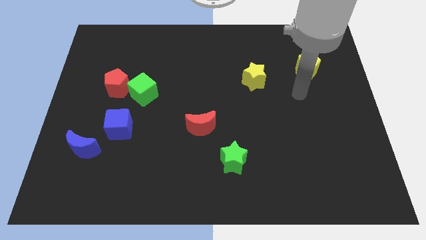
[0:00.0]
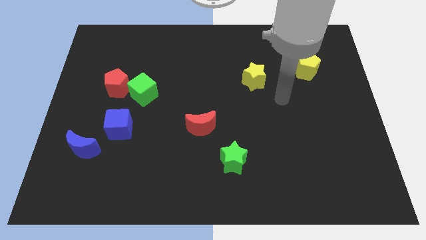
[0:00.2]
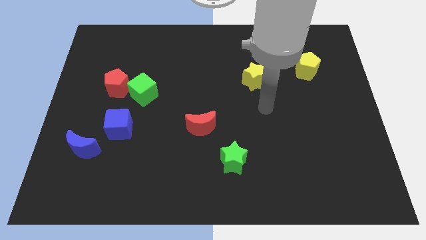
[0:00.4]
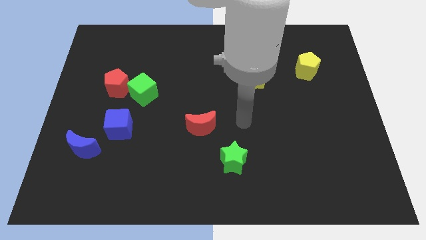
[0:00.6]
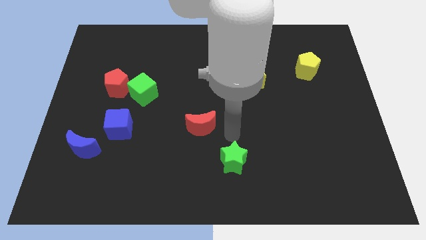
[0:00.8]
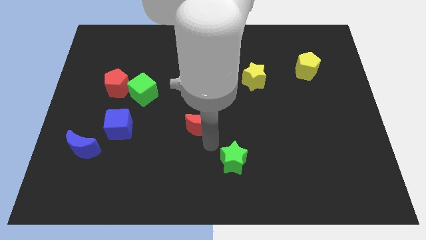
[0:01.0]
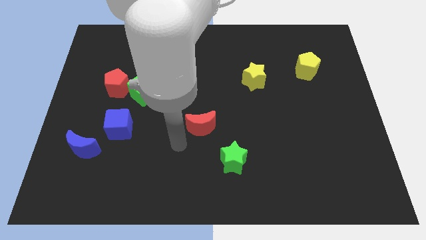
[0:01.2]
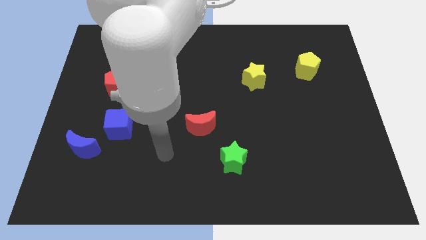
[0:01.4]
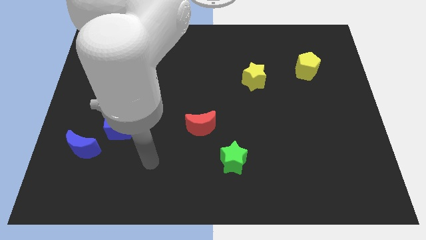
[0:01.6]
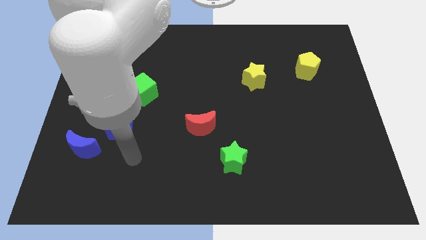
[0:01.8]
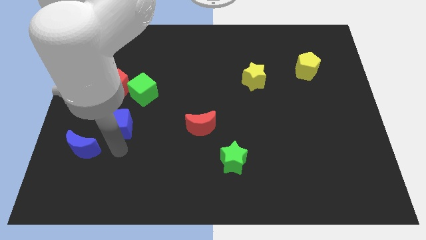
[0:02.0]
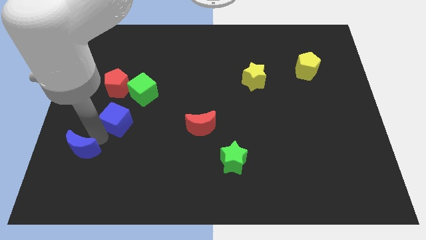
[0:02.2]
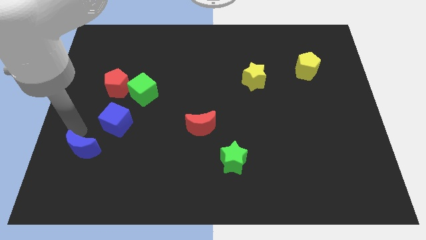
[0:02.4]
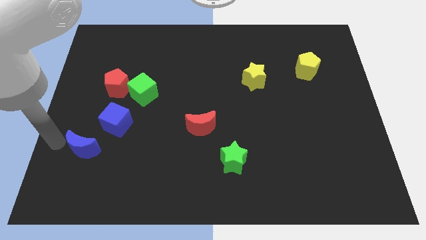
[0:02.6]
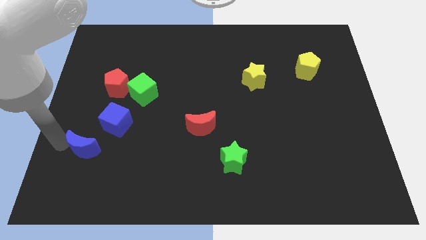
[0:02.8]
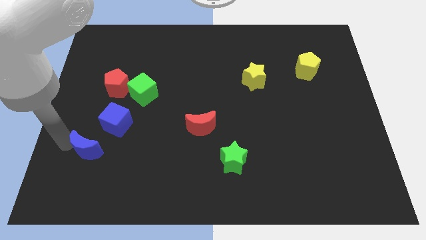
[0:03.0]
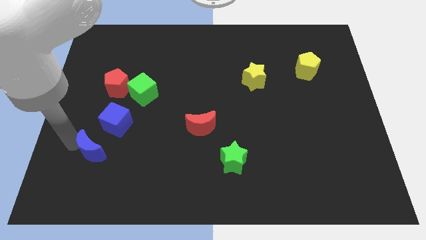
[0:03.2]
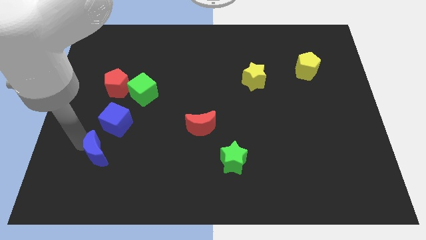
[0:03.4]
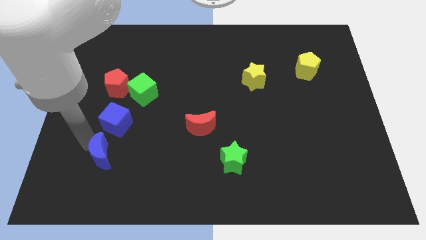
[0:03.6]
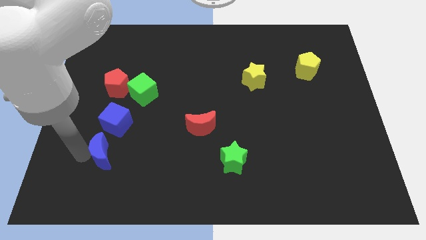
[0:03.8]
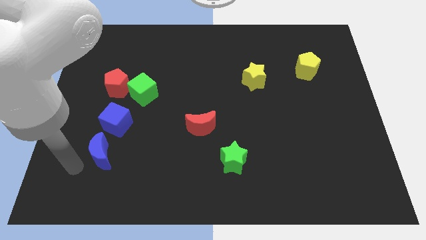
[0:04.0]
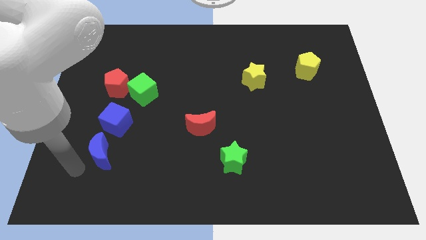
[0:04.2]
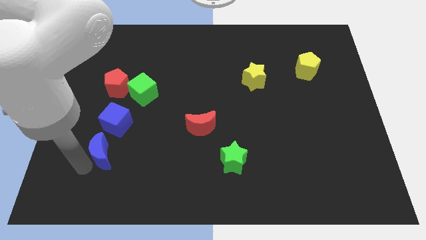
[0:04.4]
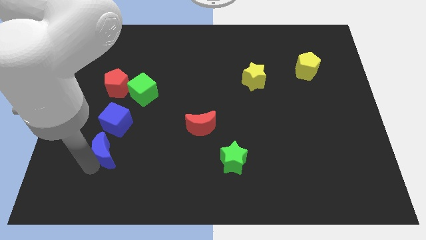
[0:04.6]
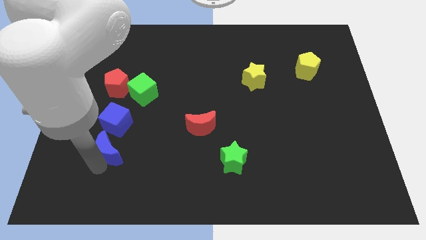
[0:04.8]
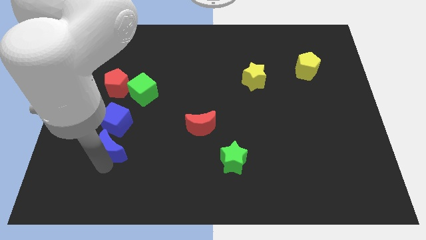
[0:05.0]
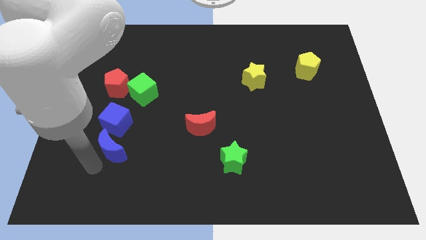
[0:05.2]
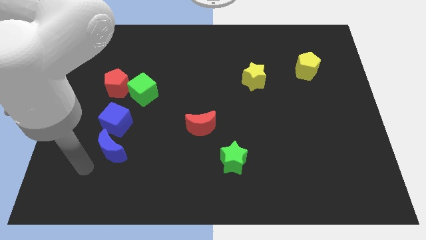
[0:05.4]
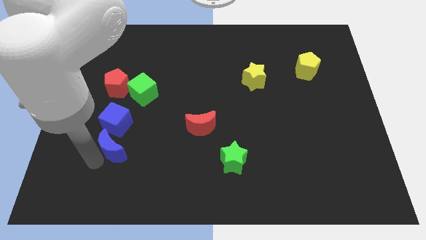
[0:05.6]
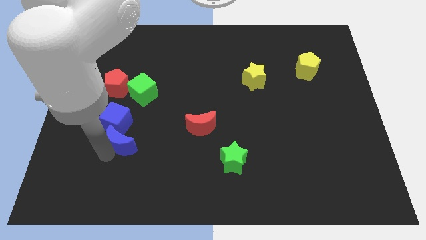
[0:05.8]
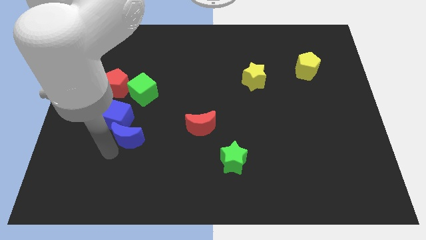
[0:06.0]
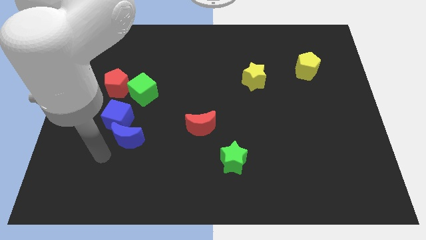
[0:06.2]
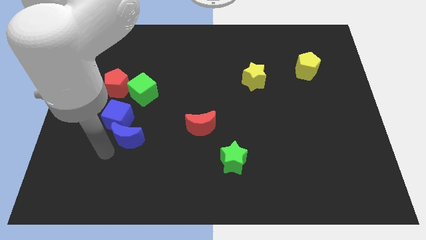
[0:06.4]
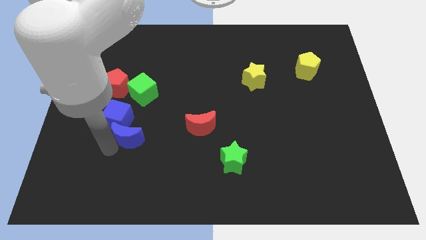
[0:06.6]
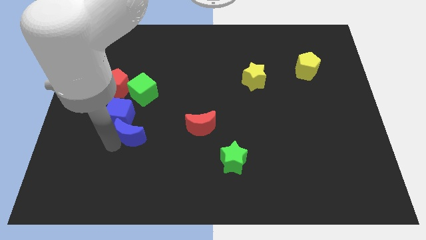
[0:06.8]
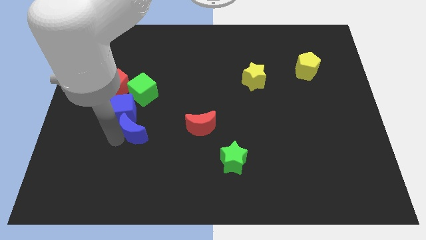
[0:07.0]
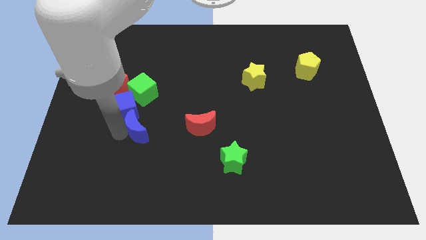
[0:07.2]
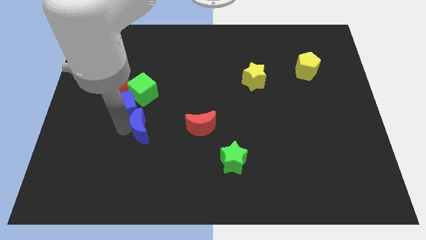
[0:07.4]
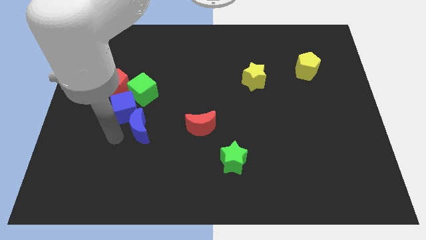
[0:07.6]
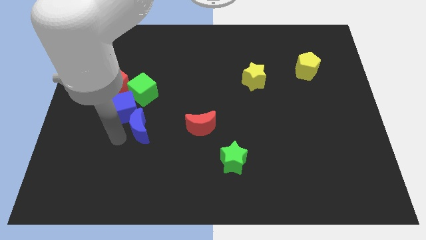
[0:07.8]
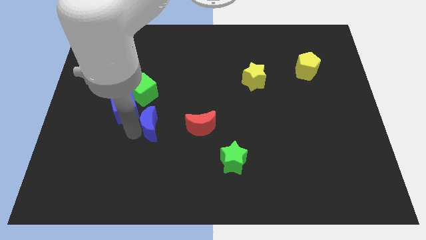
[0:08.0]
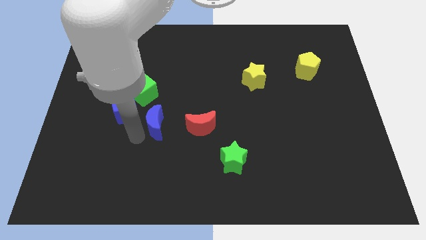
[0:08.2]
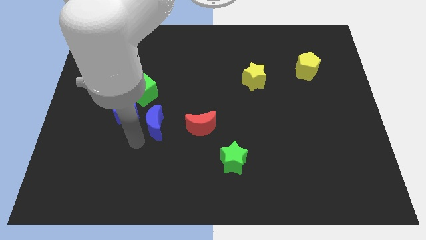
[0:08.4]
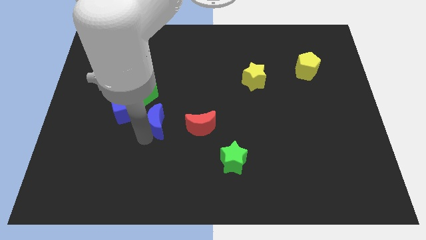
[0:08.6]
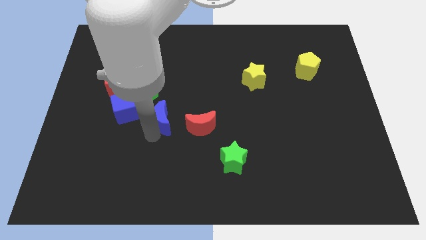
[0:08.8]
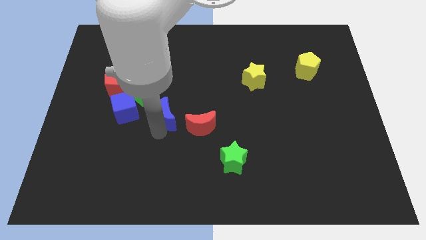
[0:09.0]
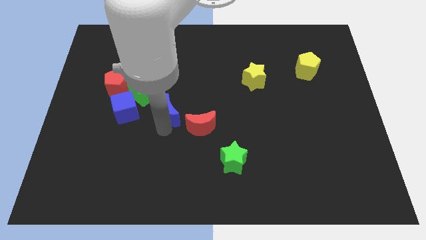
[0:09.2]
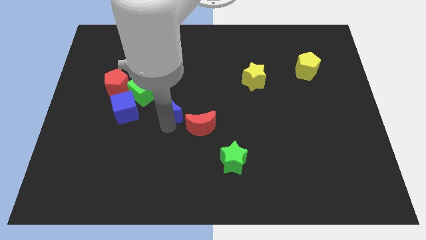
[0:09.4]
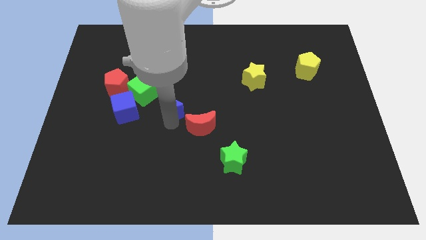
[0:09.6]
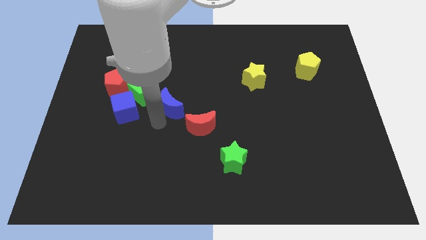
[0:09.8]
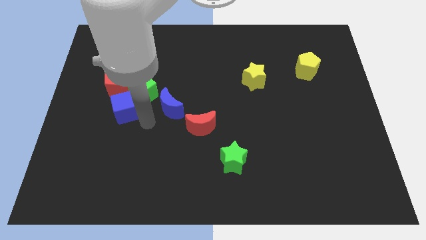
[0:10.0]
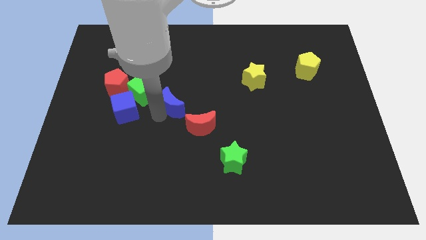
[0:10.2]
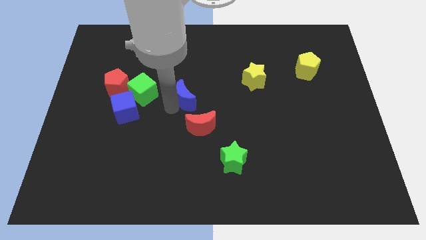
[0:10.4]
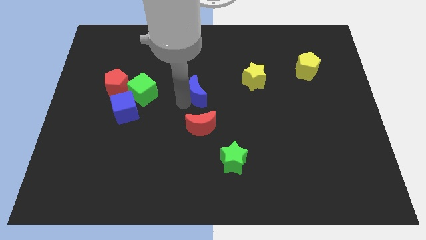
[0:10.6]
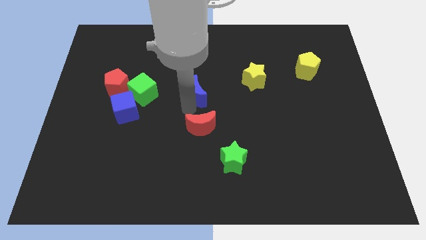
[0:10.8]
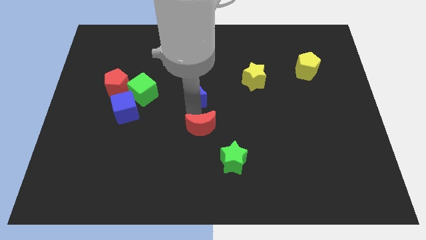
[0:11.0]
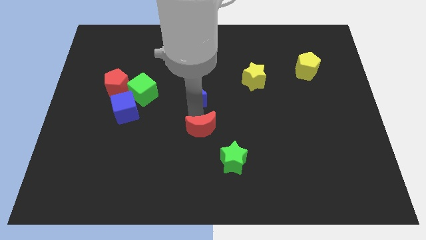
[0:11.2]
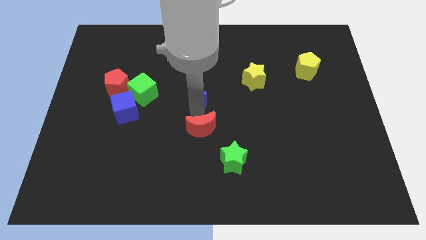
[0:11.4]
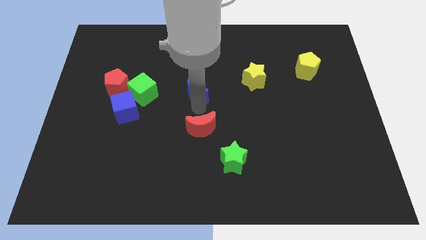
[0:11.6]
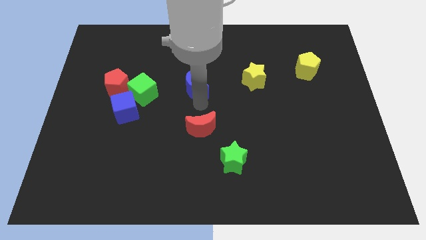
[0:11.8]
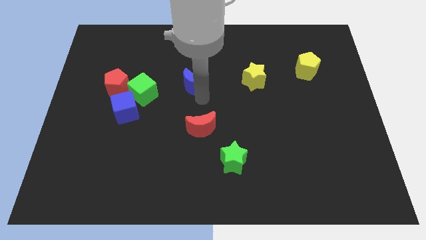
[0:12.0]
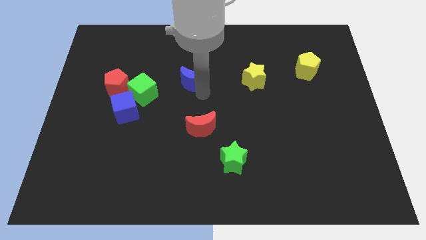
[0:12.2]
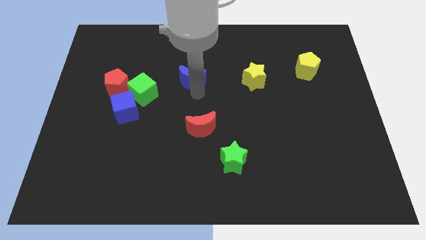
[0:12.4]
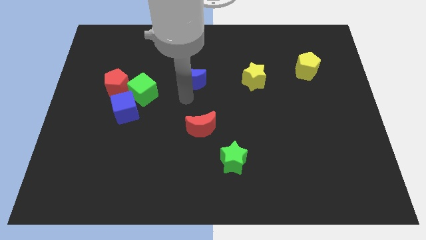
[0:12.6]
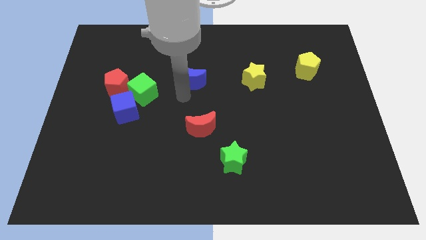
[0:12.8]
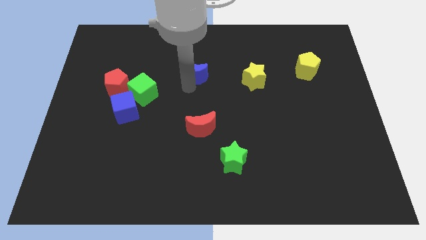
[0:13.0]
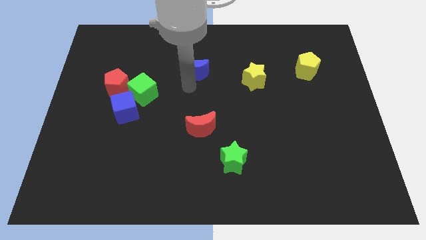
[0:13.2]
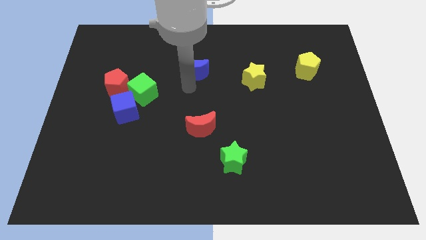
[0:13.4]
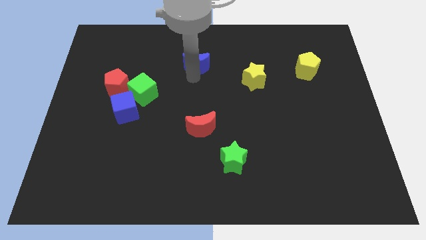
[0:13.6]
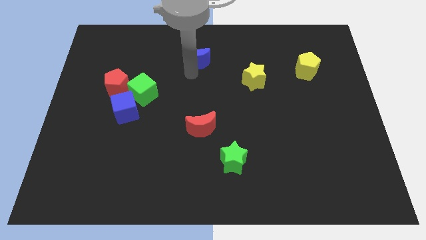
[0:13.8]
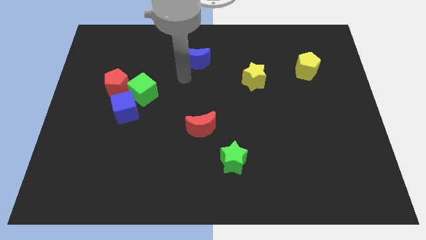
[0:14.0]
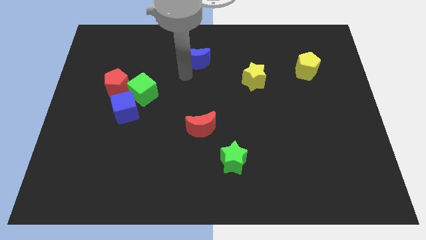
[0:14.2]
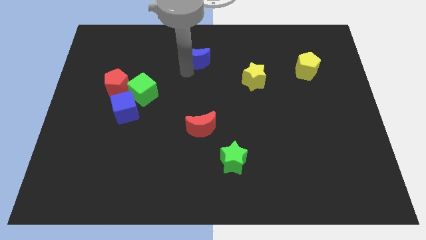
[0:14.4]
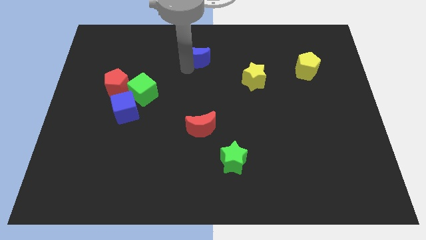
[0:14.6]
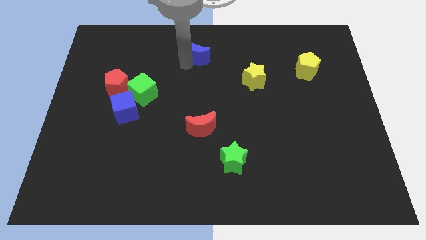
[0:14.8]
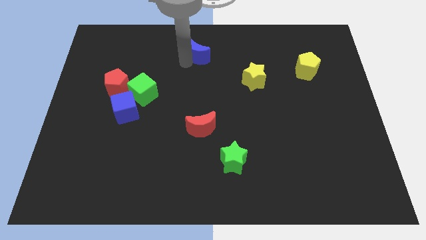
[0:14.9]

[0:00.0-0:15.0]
push the blue moon to the top side

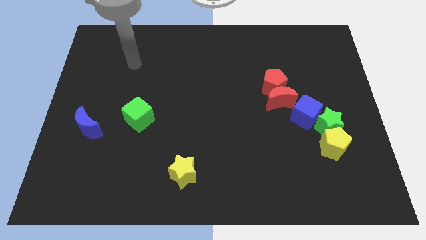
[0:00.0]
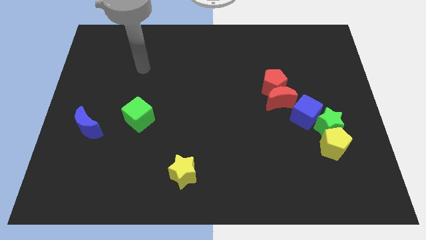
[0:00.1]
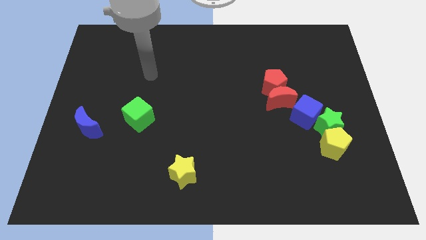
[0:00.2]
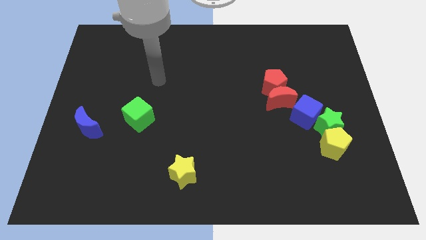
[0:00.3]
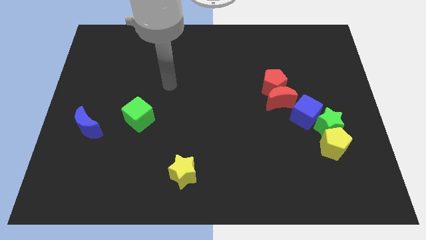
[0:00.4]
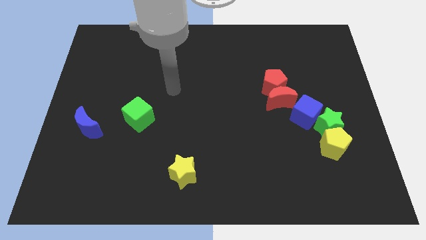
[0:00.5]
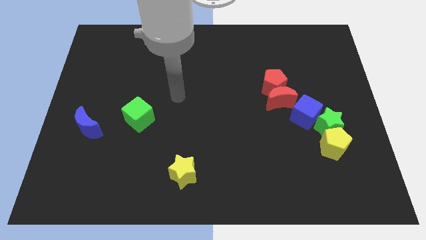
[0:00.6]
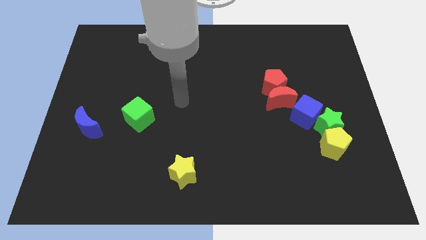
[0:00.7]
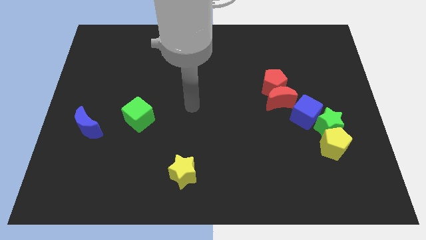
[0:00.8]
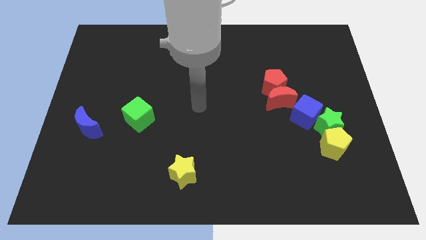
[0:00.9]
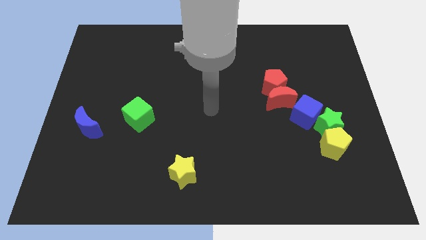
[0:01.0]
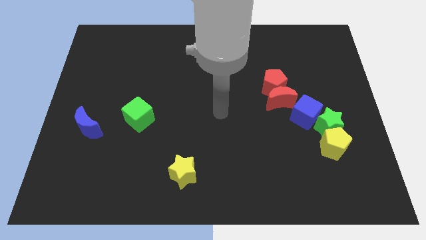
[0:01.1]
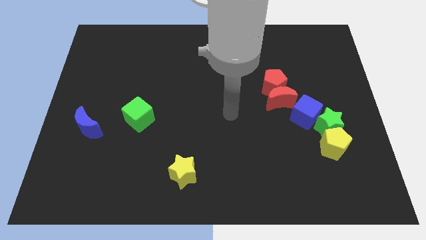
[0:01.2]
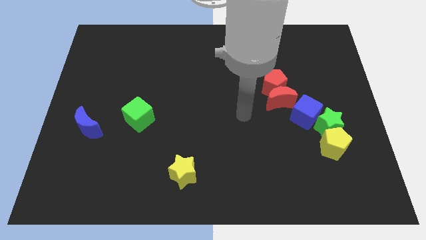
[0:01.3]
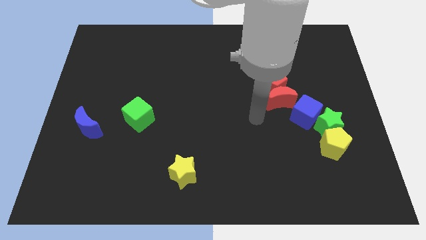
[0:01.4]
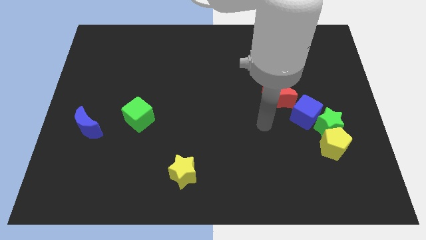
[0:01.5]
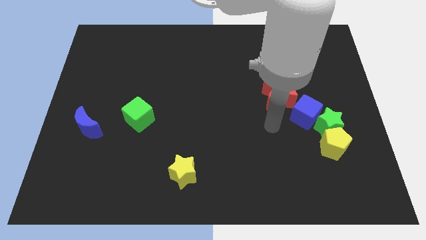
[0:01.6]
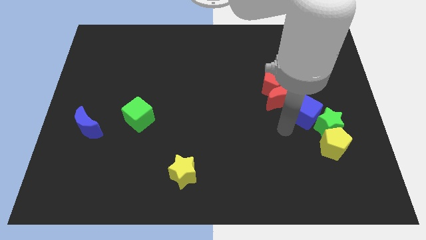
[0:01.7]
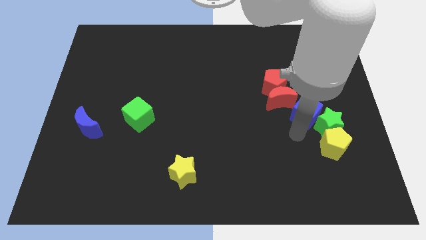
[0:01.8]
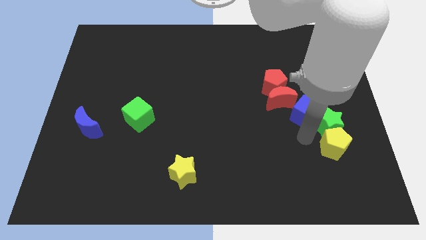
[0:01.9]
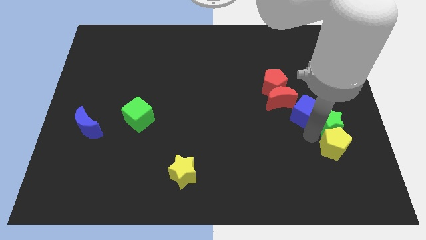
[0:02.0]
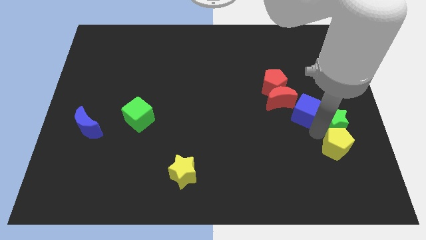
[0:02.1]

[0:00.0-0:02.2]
slide the green star to the center right
